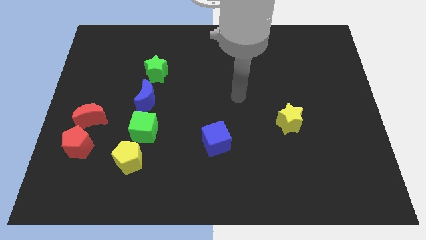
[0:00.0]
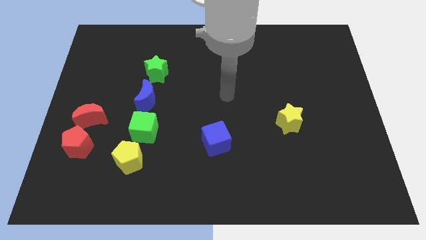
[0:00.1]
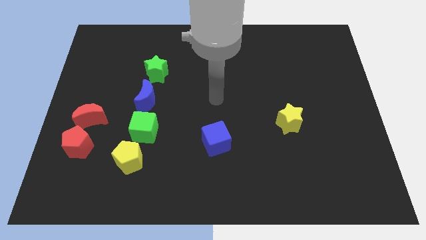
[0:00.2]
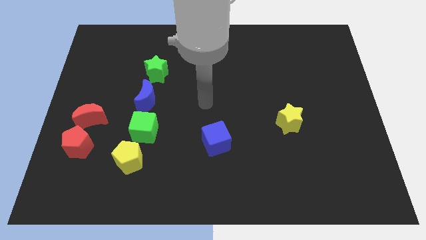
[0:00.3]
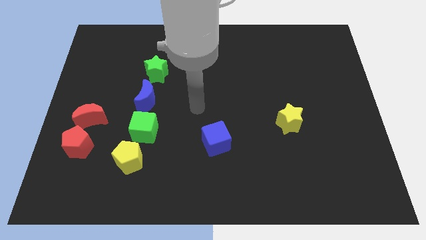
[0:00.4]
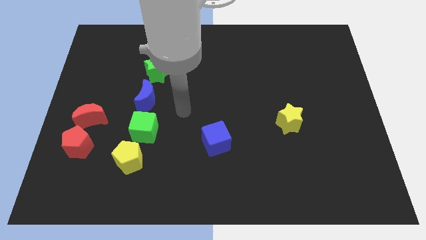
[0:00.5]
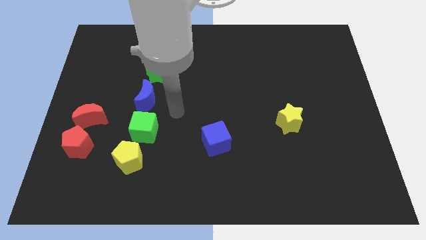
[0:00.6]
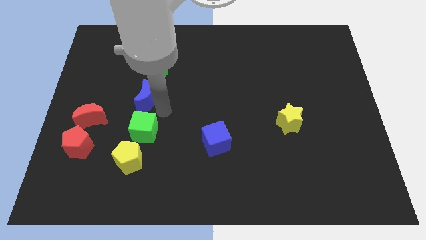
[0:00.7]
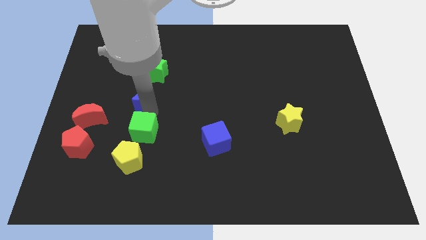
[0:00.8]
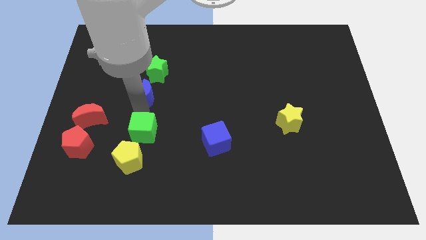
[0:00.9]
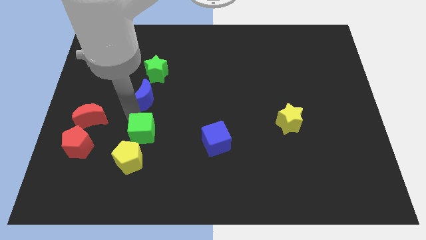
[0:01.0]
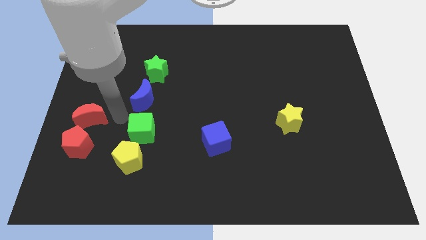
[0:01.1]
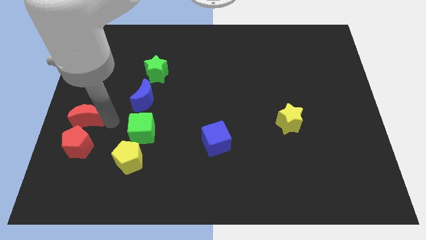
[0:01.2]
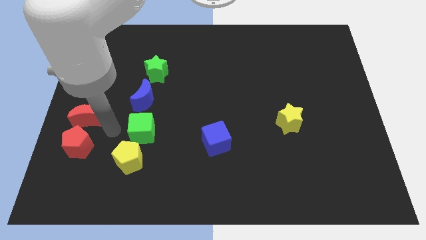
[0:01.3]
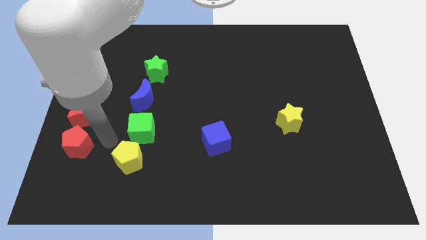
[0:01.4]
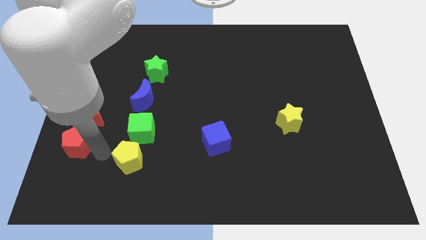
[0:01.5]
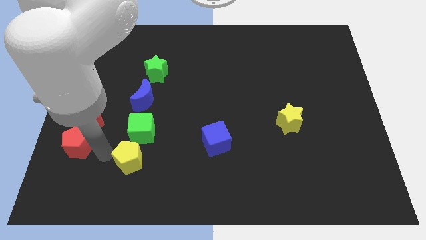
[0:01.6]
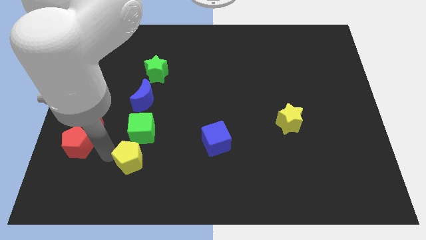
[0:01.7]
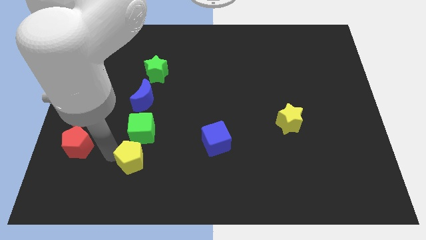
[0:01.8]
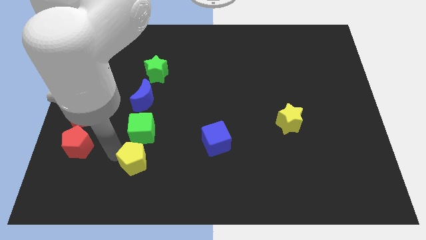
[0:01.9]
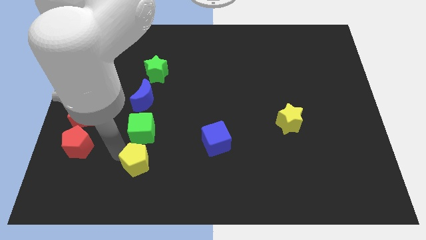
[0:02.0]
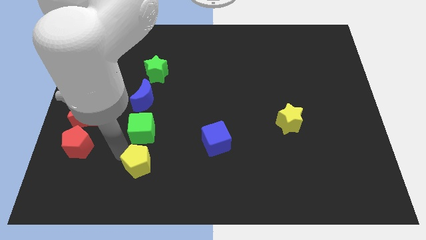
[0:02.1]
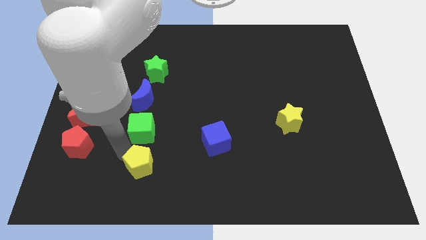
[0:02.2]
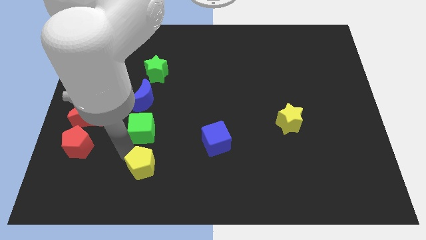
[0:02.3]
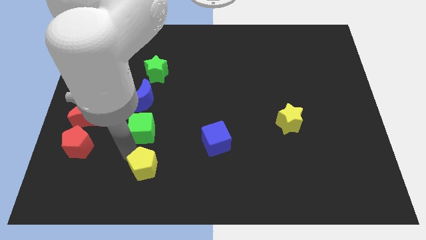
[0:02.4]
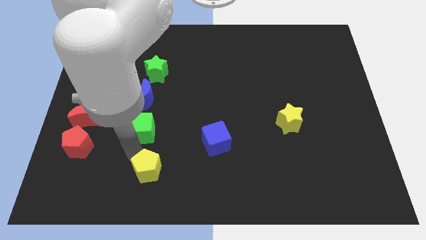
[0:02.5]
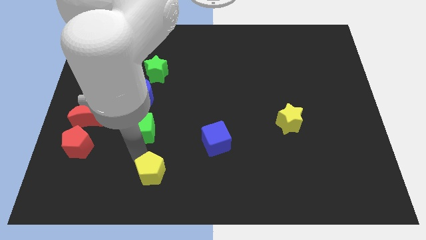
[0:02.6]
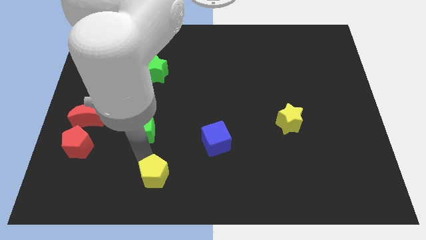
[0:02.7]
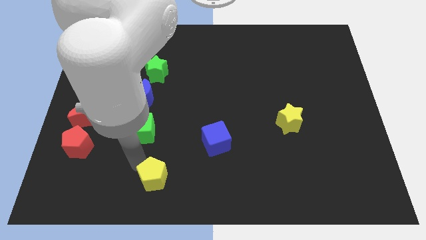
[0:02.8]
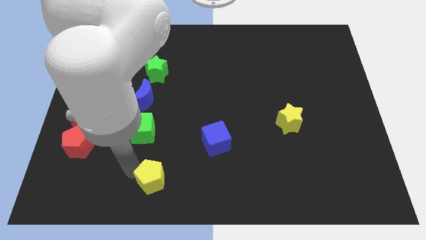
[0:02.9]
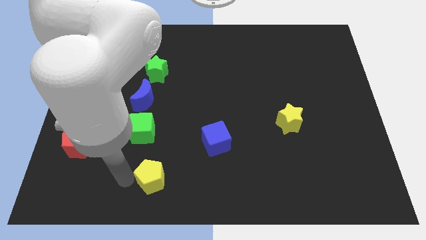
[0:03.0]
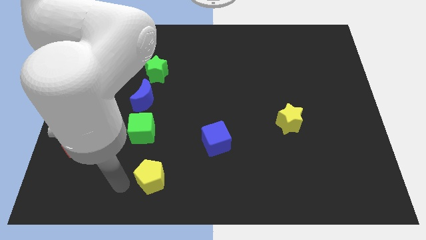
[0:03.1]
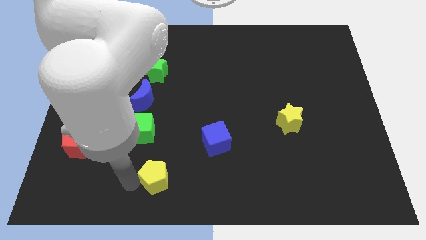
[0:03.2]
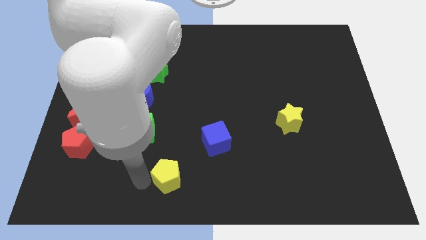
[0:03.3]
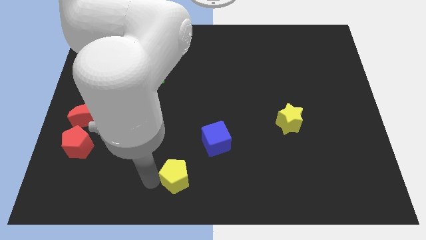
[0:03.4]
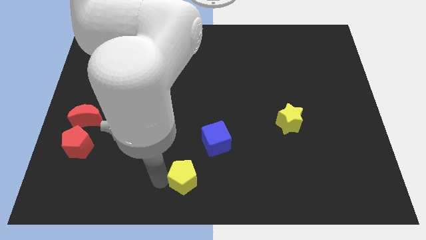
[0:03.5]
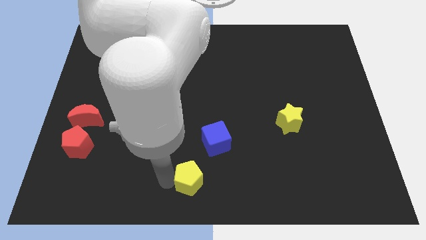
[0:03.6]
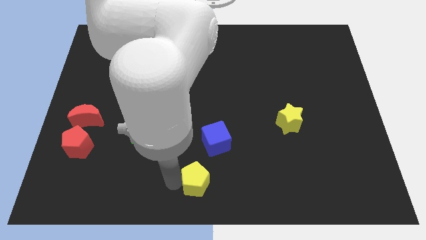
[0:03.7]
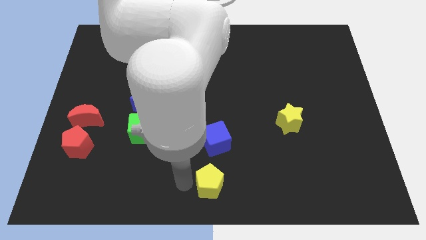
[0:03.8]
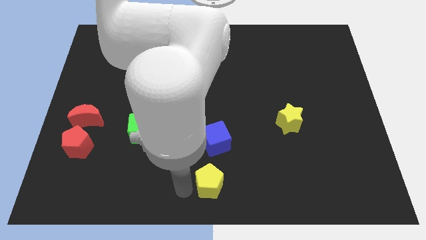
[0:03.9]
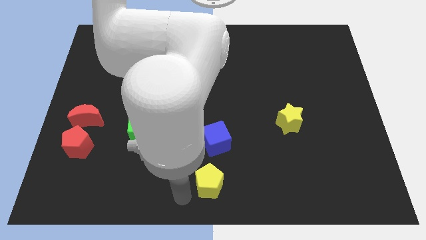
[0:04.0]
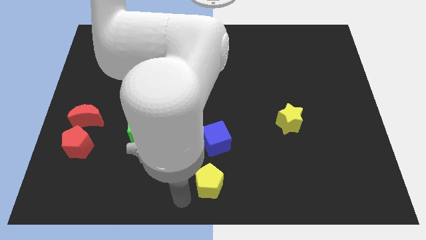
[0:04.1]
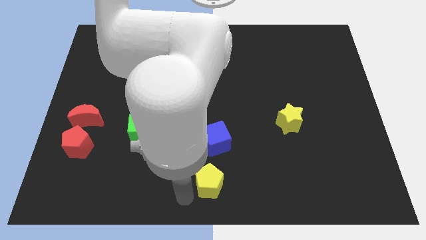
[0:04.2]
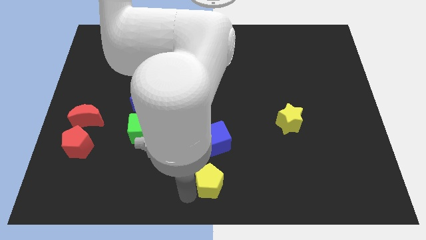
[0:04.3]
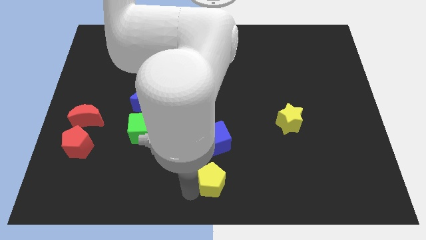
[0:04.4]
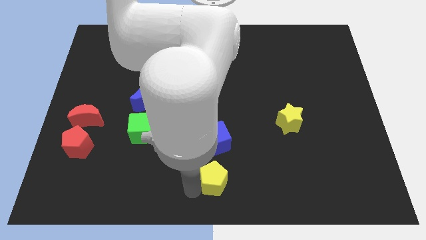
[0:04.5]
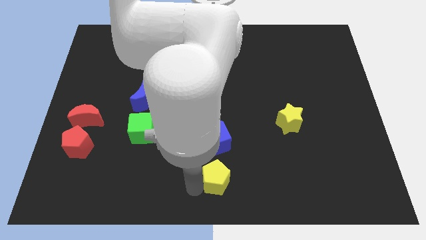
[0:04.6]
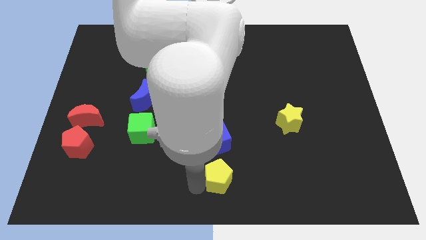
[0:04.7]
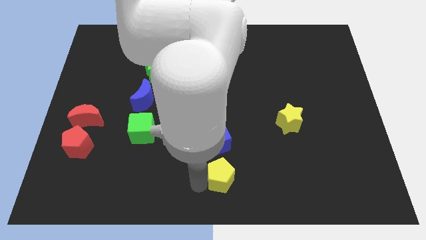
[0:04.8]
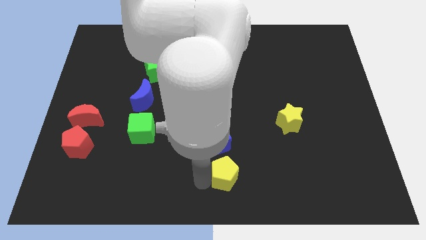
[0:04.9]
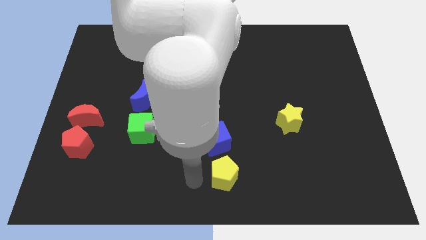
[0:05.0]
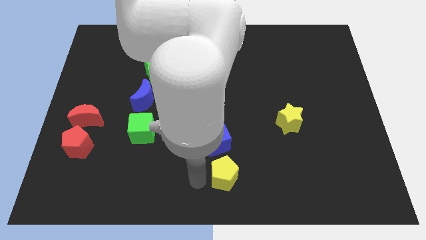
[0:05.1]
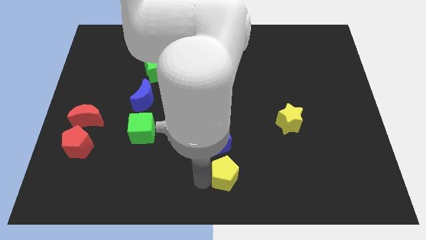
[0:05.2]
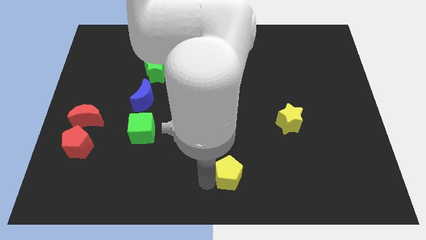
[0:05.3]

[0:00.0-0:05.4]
move the yellow pentagon to the right

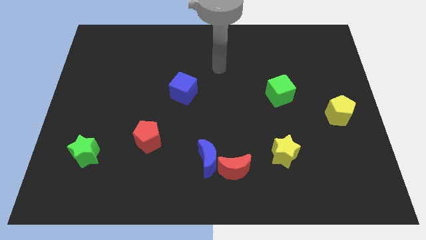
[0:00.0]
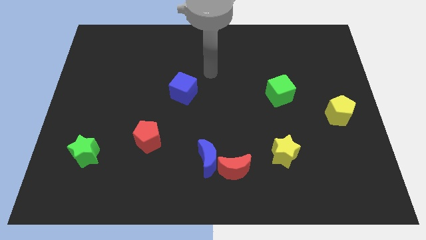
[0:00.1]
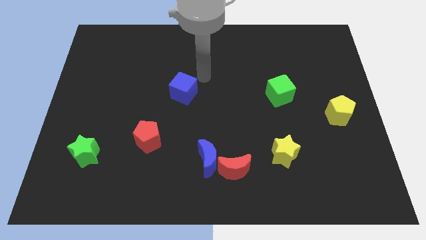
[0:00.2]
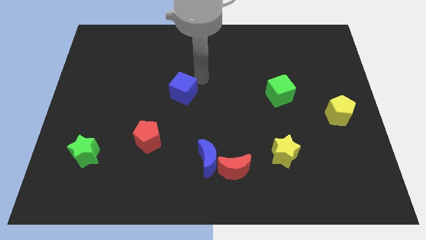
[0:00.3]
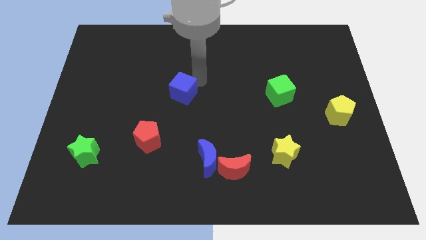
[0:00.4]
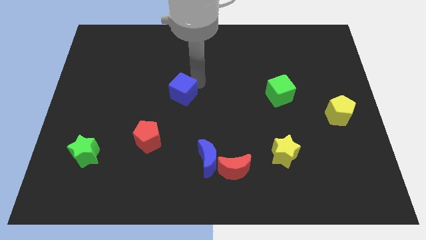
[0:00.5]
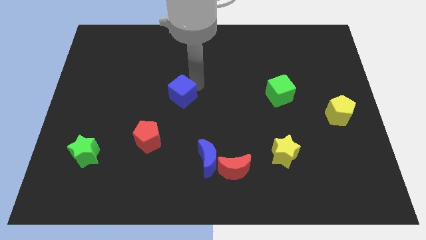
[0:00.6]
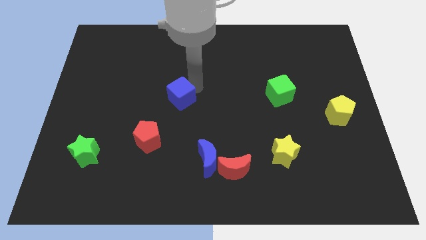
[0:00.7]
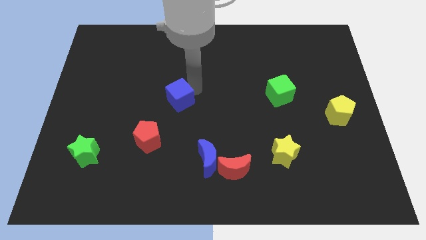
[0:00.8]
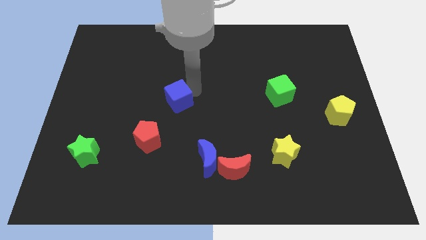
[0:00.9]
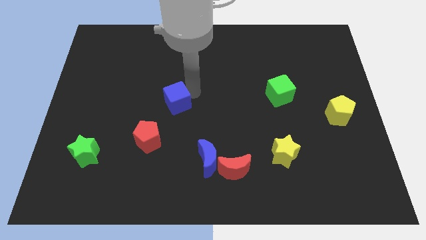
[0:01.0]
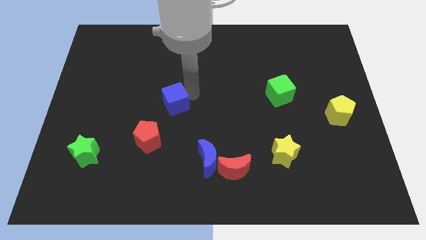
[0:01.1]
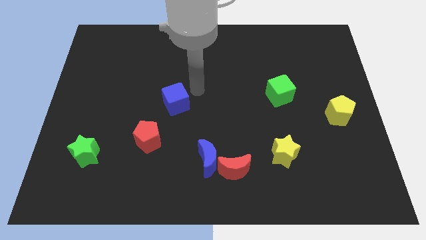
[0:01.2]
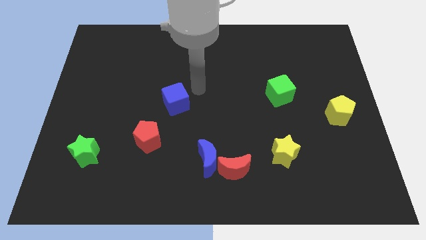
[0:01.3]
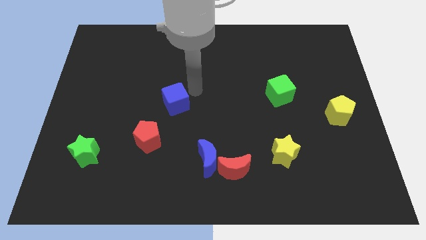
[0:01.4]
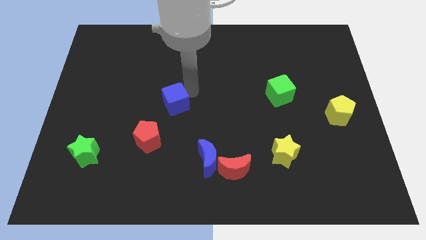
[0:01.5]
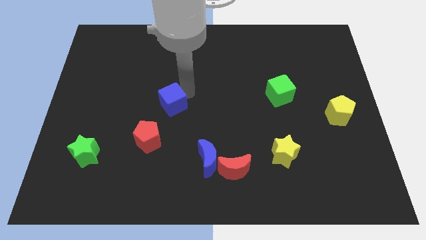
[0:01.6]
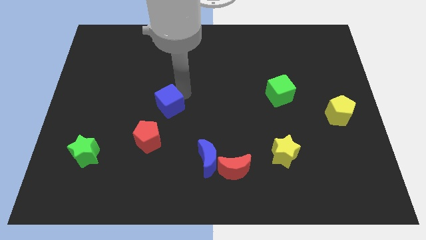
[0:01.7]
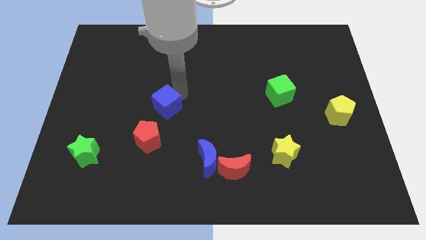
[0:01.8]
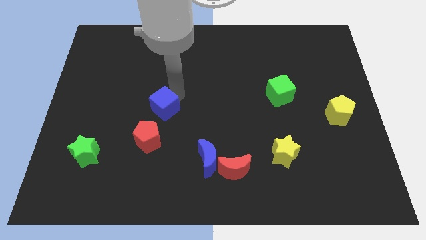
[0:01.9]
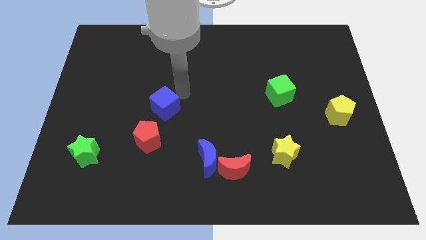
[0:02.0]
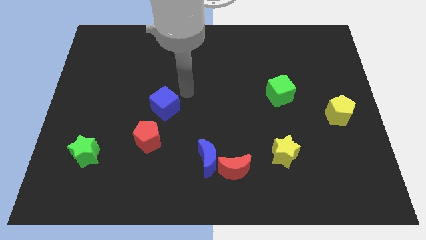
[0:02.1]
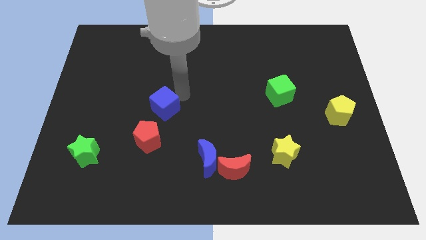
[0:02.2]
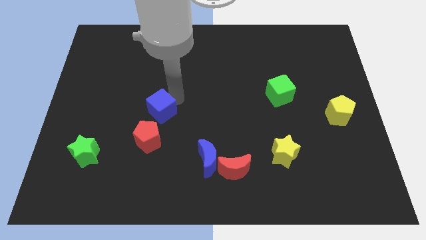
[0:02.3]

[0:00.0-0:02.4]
slide the blue cube a little bit downwards and to the left diagonally

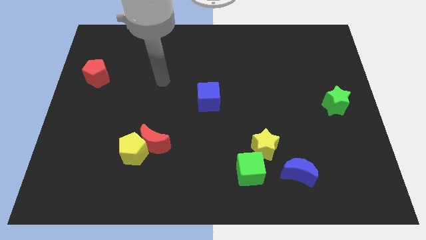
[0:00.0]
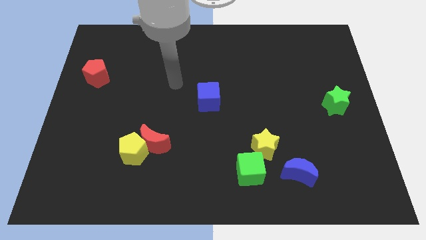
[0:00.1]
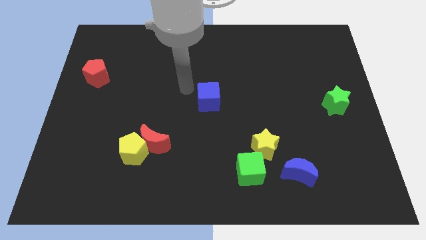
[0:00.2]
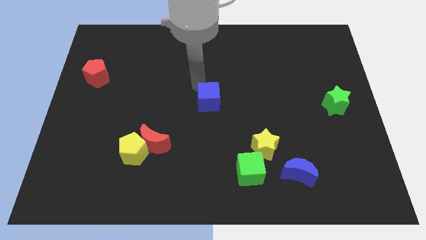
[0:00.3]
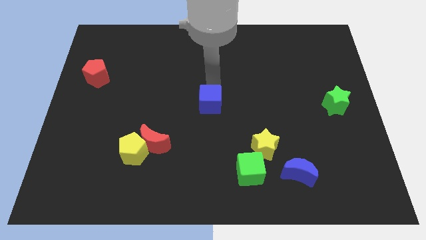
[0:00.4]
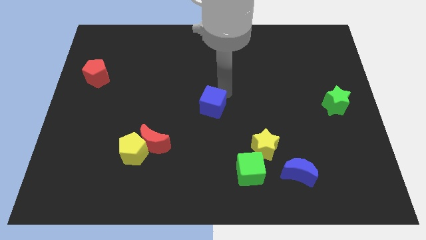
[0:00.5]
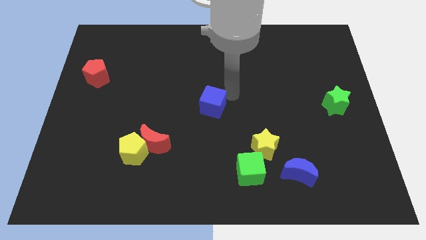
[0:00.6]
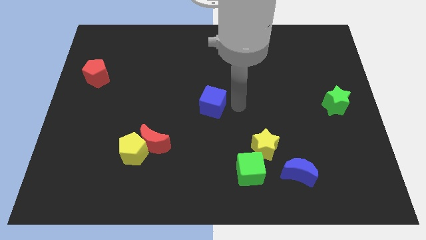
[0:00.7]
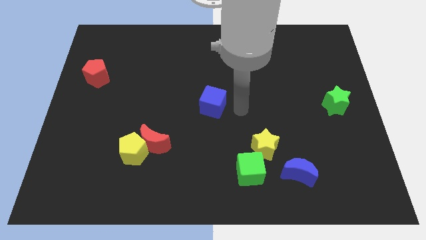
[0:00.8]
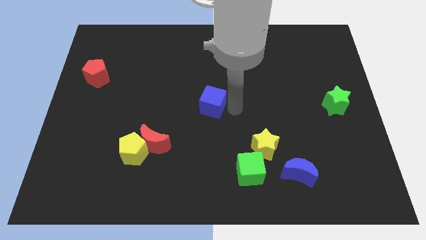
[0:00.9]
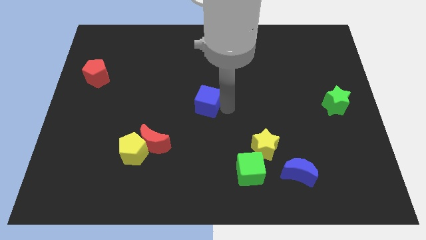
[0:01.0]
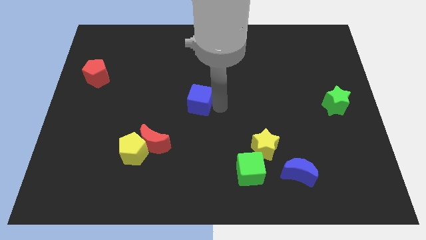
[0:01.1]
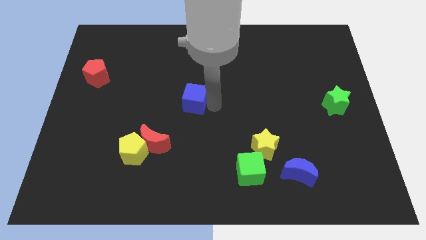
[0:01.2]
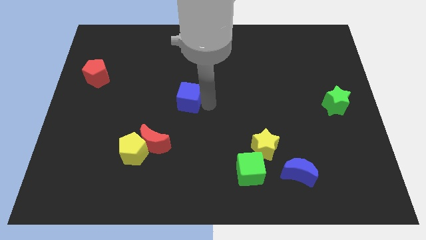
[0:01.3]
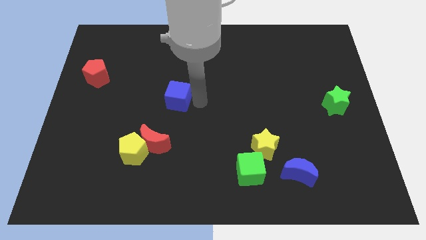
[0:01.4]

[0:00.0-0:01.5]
slightly push the blue cube to the left
